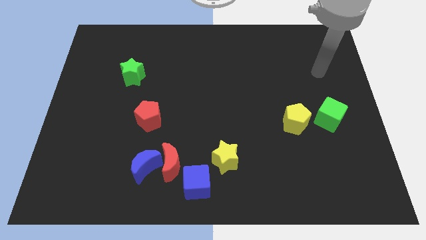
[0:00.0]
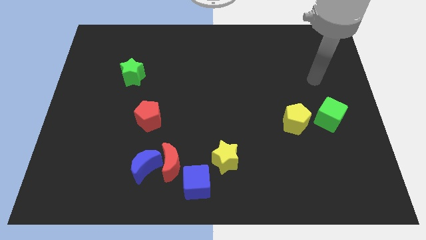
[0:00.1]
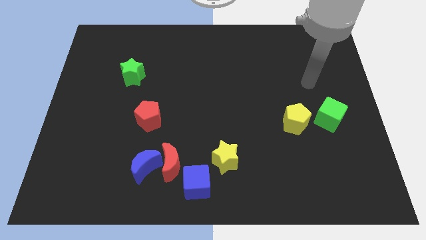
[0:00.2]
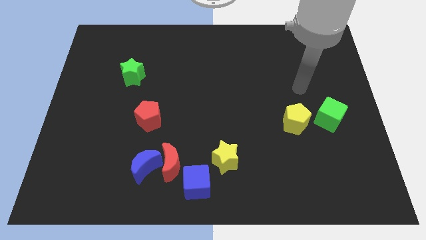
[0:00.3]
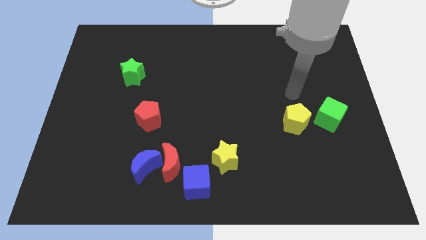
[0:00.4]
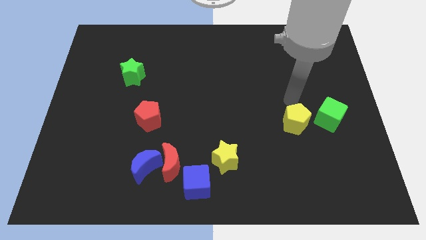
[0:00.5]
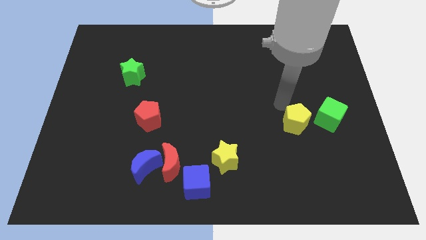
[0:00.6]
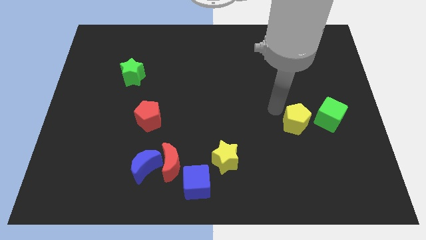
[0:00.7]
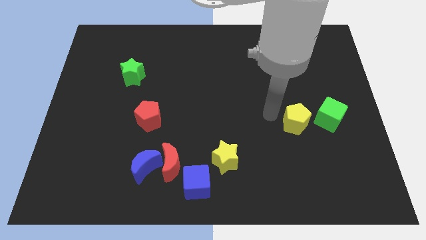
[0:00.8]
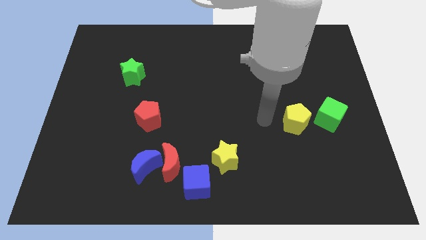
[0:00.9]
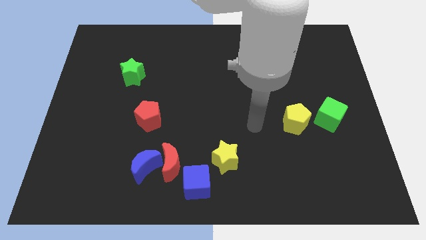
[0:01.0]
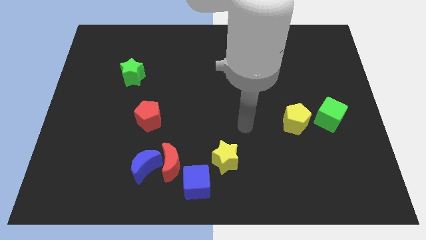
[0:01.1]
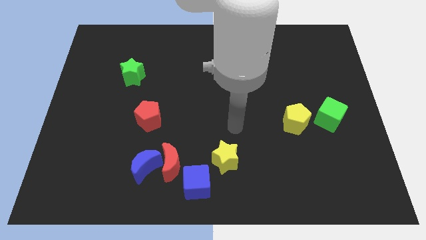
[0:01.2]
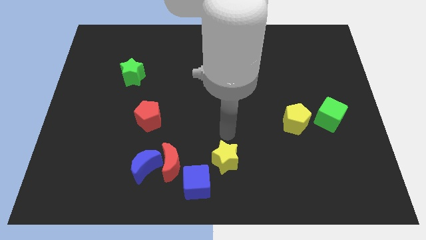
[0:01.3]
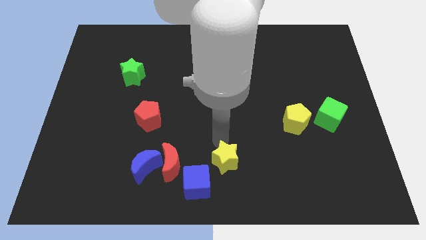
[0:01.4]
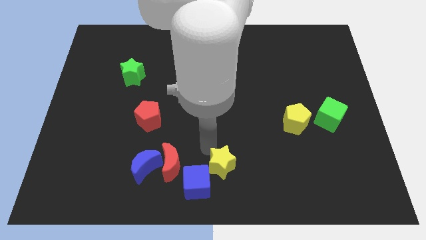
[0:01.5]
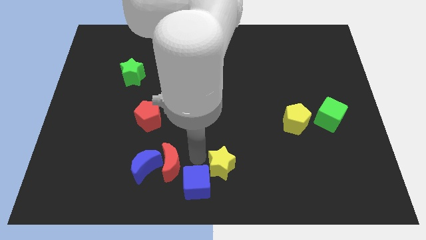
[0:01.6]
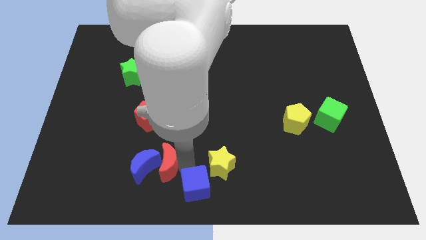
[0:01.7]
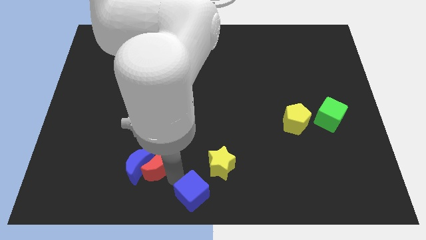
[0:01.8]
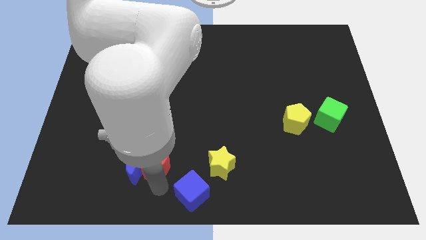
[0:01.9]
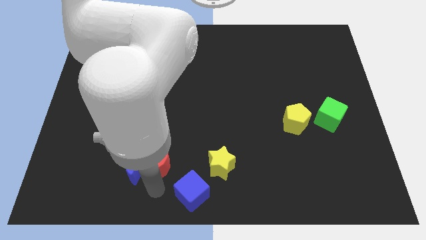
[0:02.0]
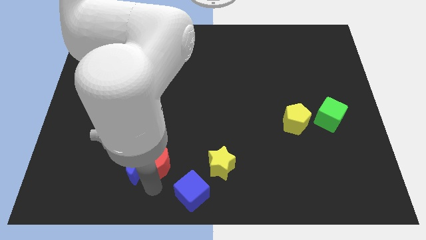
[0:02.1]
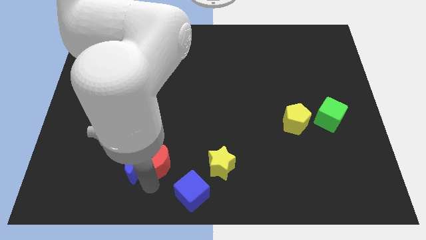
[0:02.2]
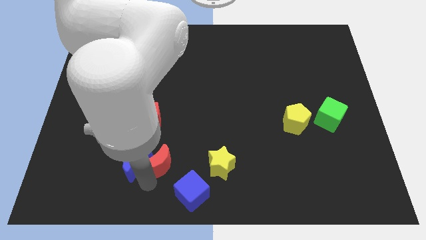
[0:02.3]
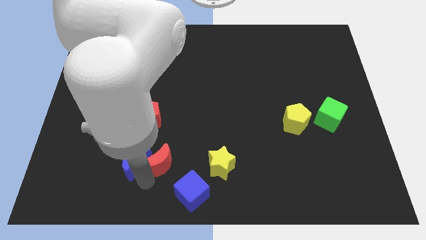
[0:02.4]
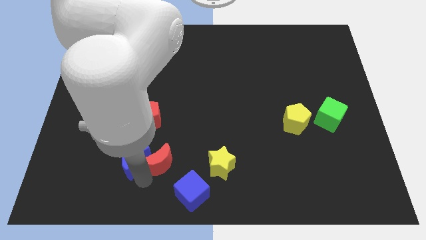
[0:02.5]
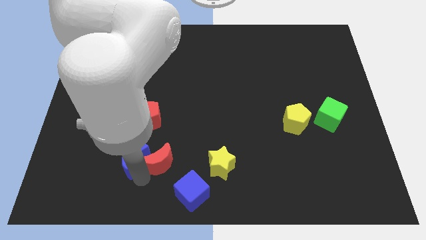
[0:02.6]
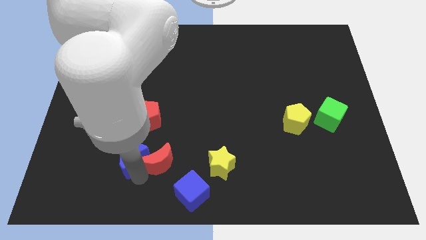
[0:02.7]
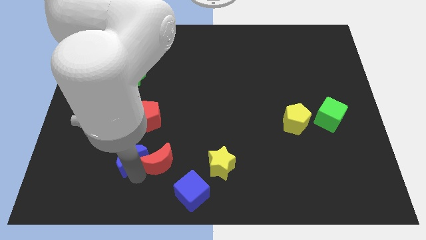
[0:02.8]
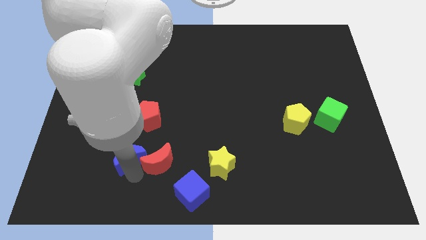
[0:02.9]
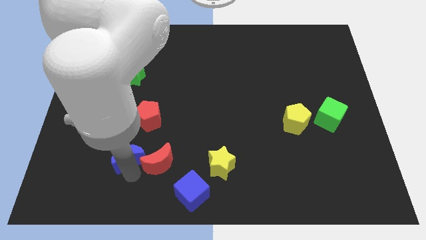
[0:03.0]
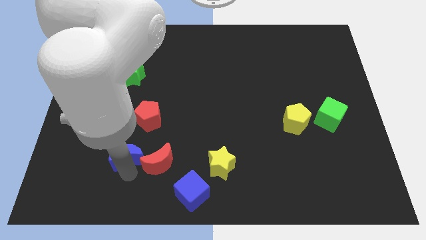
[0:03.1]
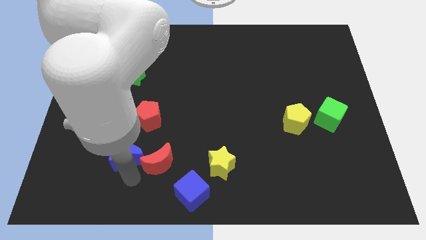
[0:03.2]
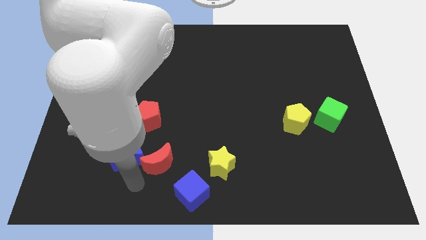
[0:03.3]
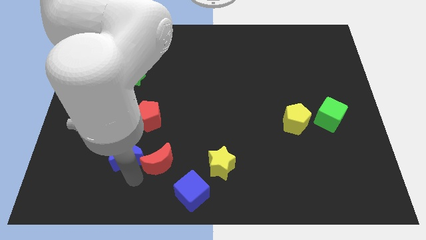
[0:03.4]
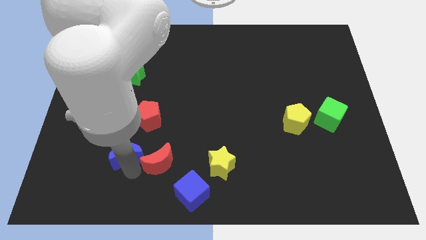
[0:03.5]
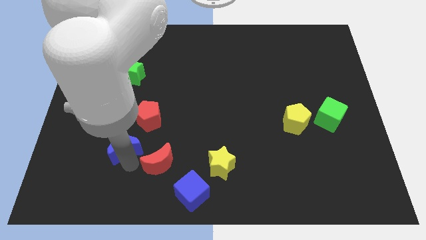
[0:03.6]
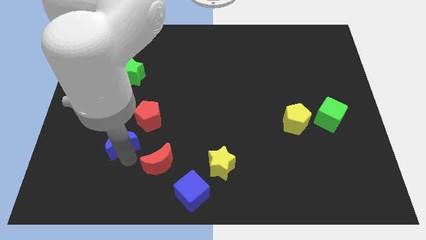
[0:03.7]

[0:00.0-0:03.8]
slightly push the blue moon diagonally up and left

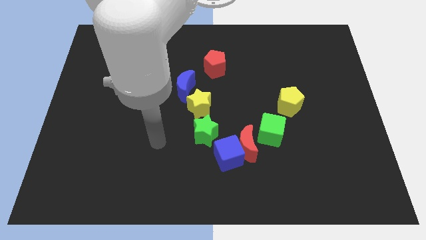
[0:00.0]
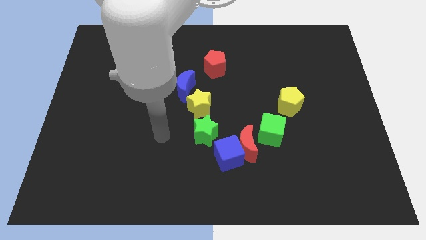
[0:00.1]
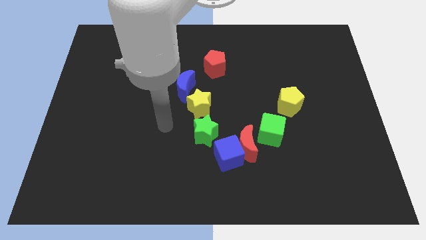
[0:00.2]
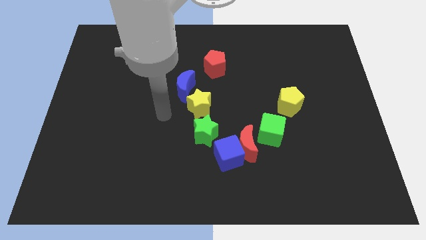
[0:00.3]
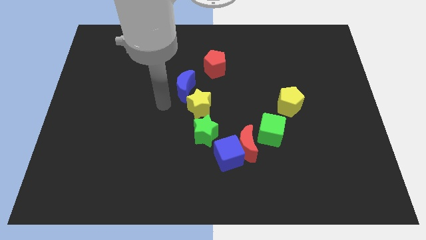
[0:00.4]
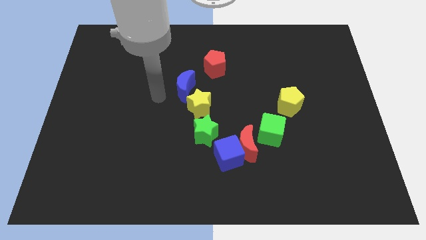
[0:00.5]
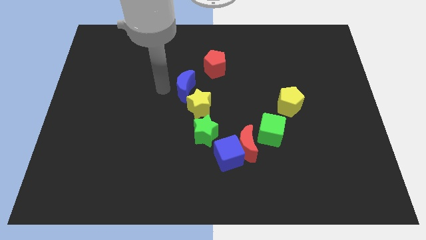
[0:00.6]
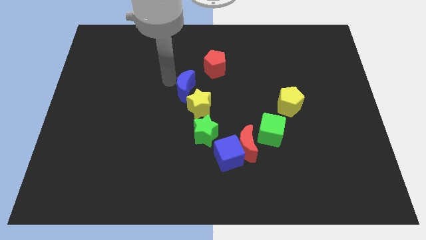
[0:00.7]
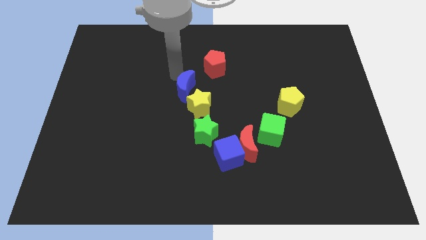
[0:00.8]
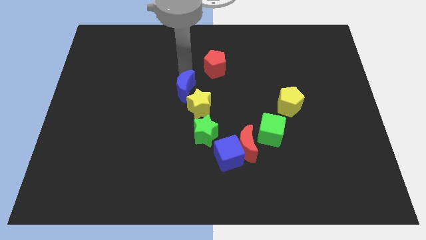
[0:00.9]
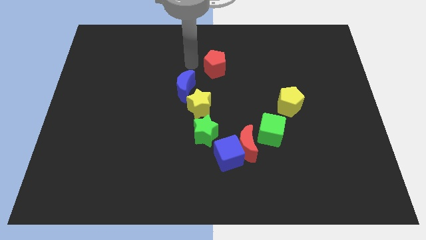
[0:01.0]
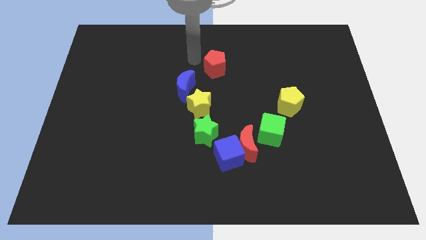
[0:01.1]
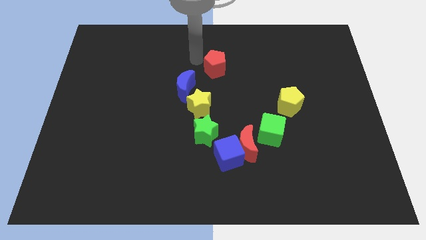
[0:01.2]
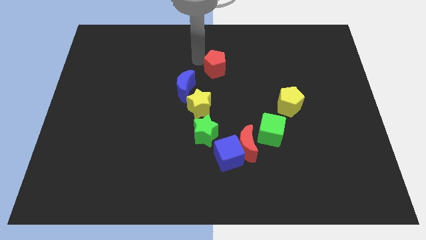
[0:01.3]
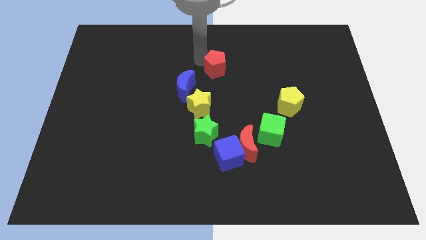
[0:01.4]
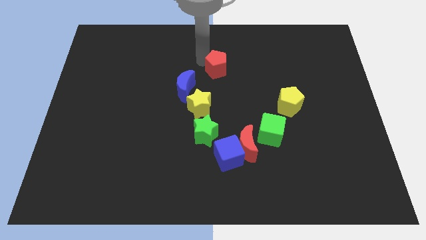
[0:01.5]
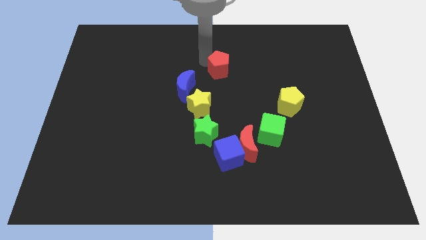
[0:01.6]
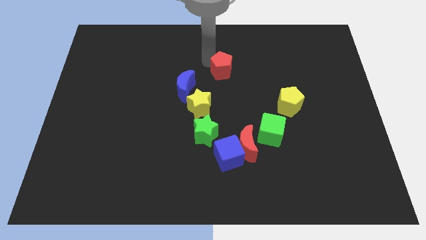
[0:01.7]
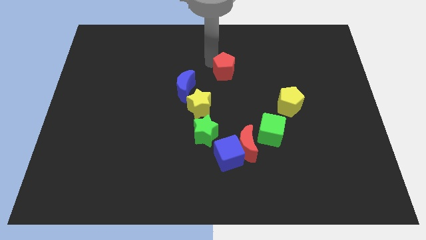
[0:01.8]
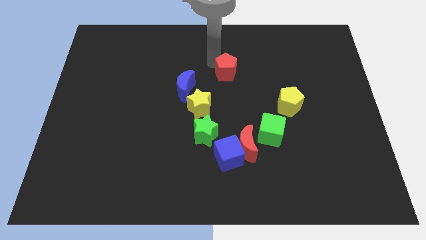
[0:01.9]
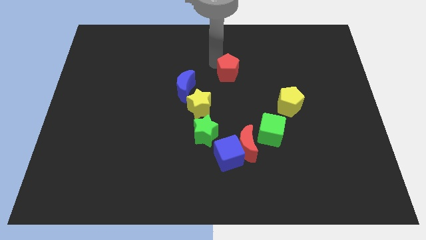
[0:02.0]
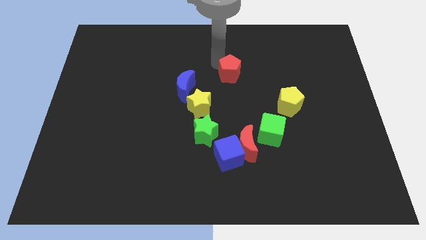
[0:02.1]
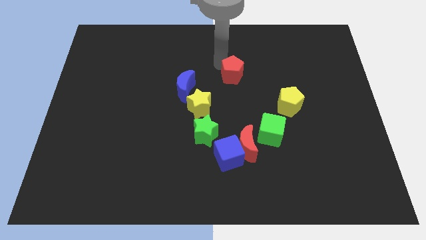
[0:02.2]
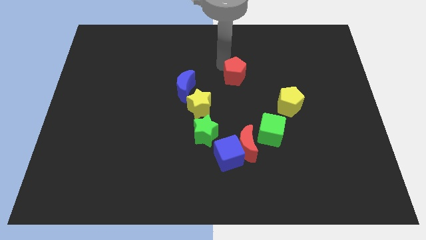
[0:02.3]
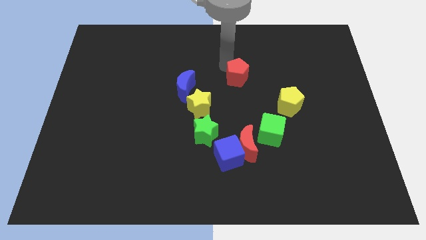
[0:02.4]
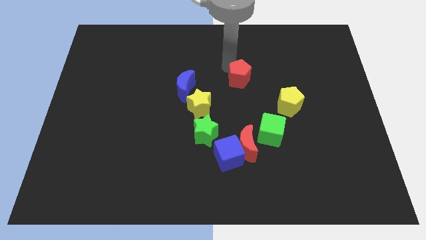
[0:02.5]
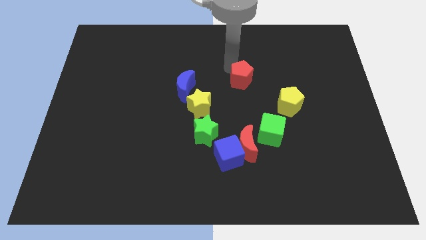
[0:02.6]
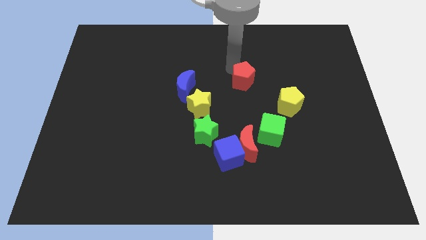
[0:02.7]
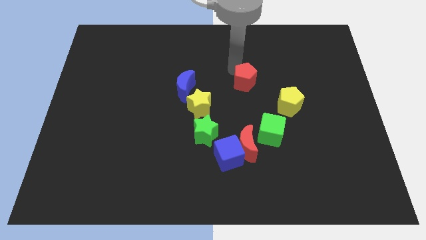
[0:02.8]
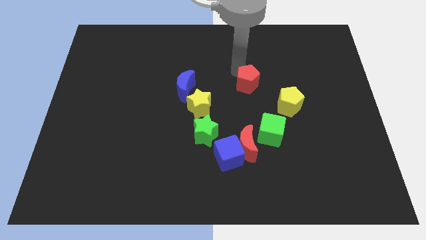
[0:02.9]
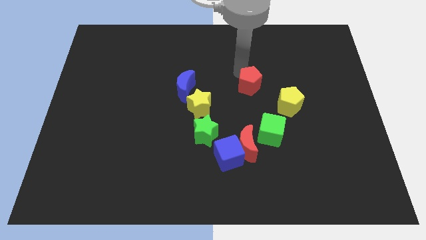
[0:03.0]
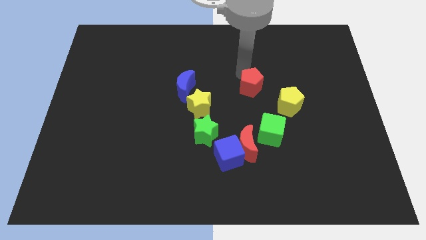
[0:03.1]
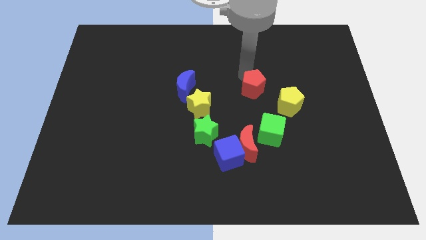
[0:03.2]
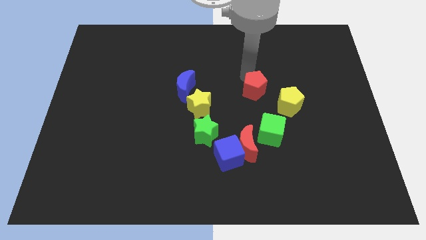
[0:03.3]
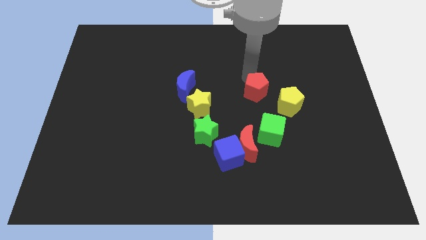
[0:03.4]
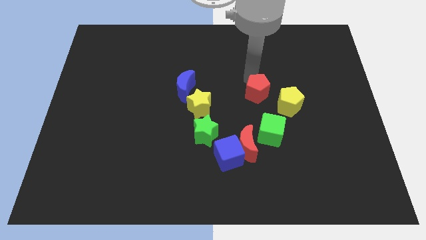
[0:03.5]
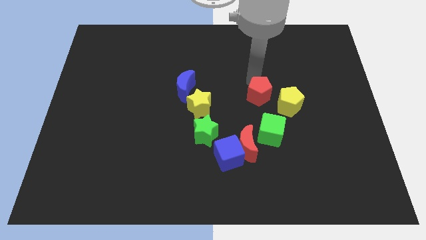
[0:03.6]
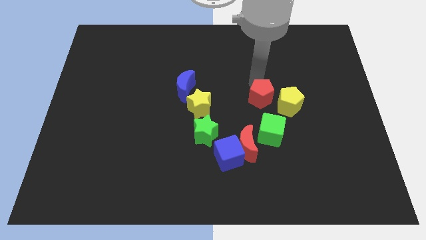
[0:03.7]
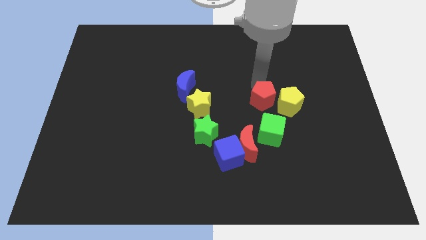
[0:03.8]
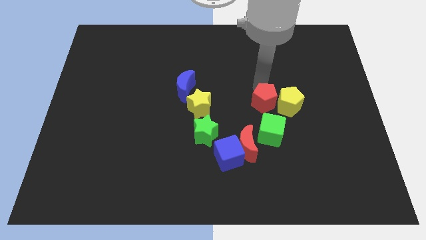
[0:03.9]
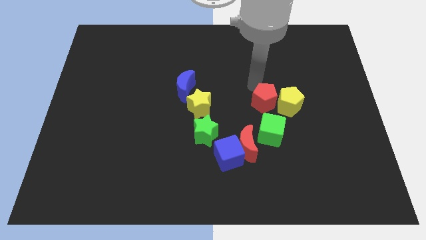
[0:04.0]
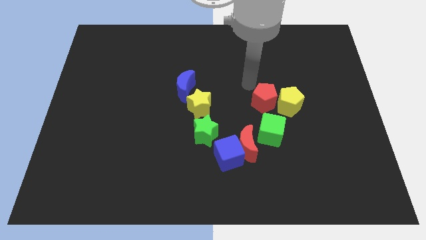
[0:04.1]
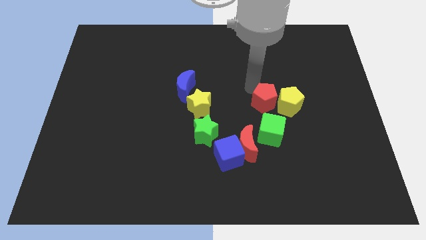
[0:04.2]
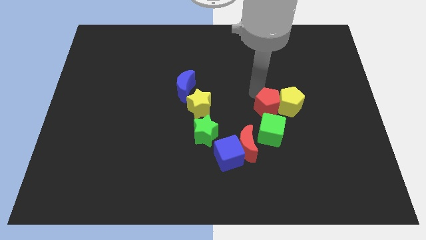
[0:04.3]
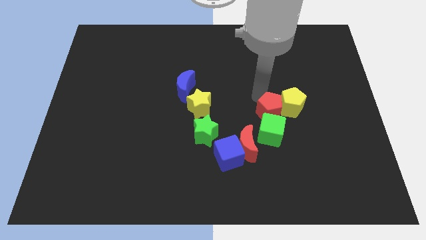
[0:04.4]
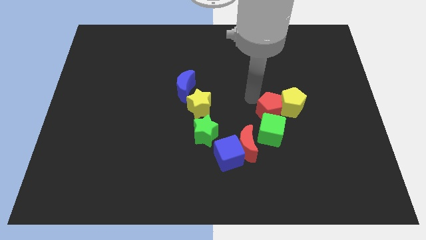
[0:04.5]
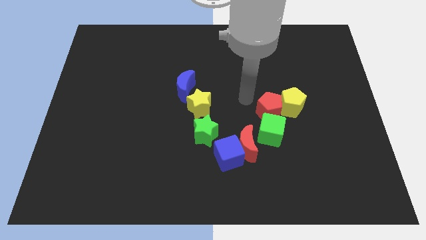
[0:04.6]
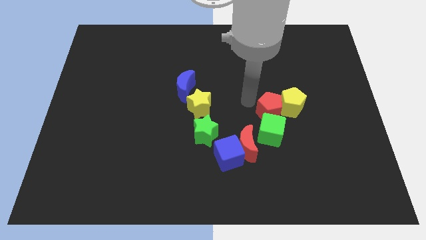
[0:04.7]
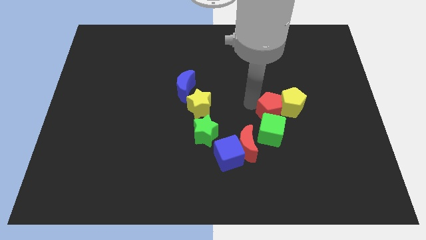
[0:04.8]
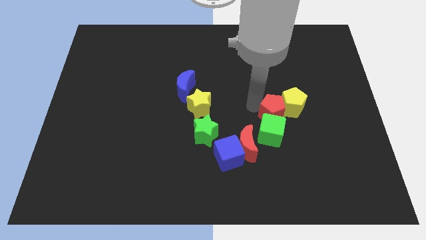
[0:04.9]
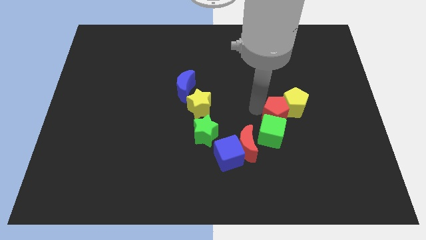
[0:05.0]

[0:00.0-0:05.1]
slide the red pentagon downwards and to the right
